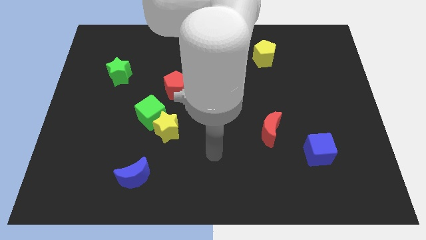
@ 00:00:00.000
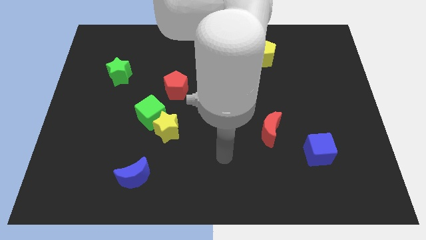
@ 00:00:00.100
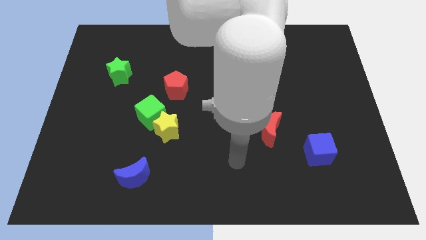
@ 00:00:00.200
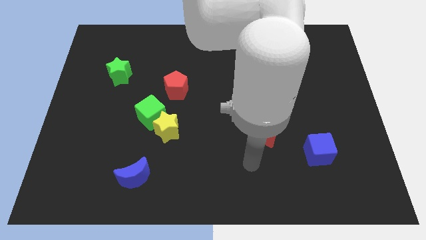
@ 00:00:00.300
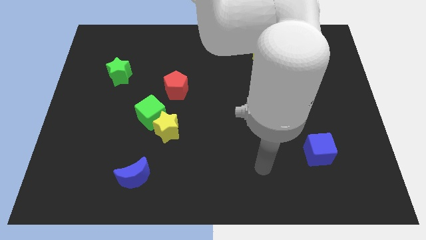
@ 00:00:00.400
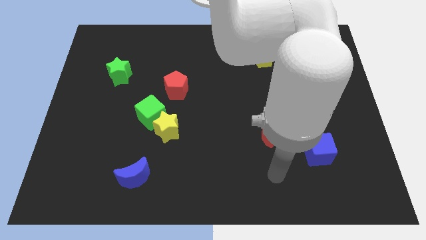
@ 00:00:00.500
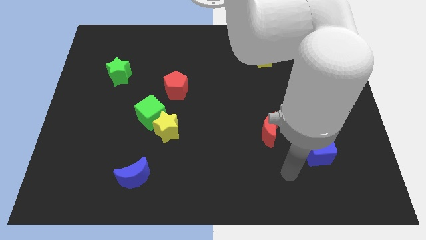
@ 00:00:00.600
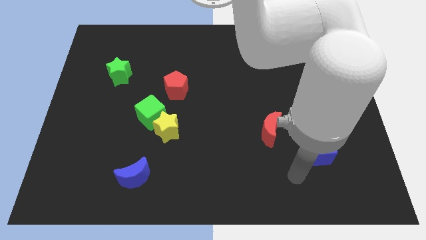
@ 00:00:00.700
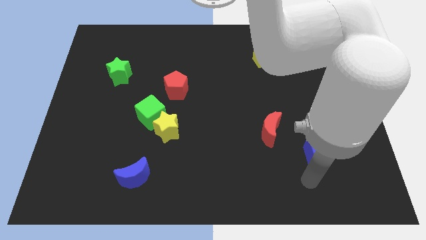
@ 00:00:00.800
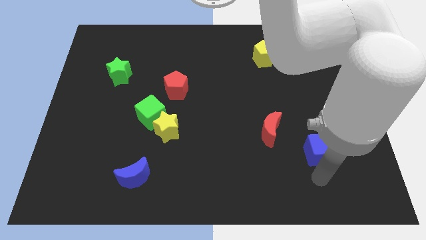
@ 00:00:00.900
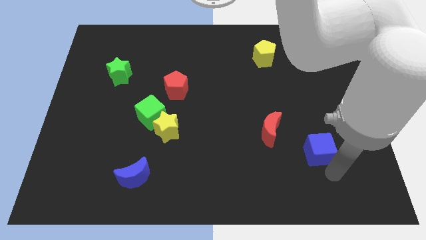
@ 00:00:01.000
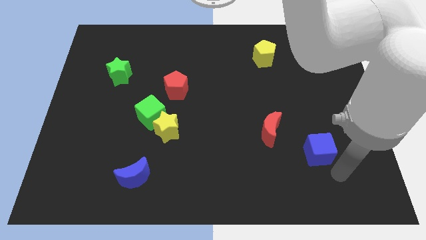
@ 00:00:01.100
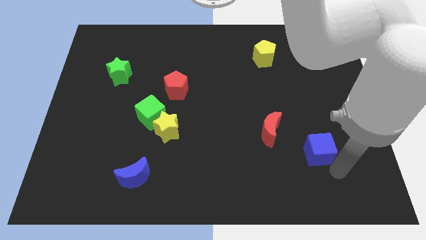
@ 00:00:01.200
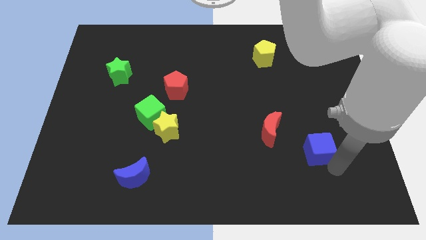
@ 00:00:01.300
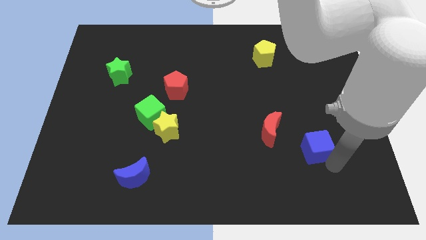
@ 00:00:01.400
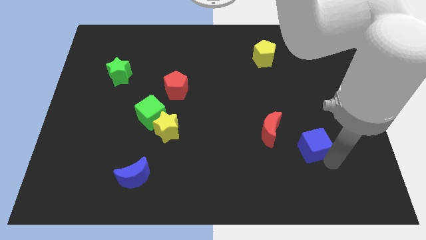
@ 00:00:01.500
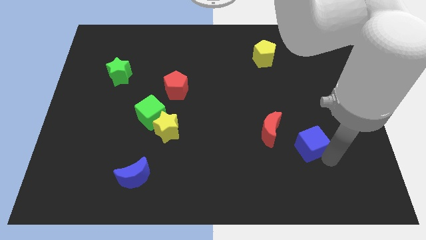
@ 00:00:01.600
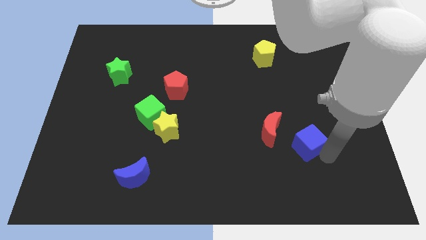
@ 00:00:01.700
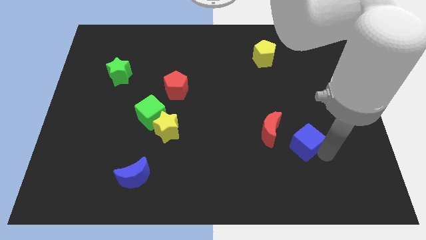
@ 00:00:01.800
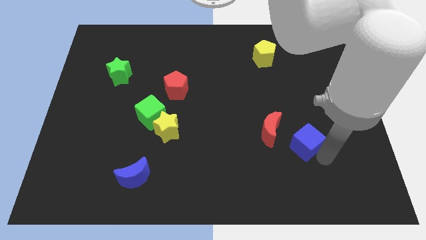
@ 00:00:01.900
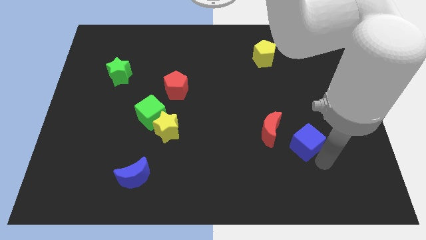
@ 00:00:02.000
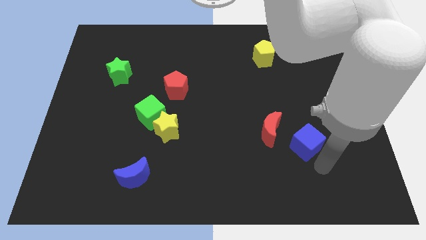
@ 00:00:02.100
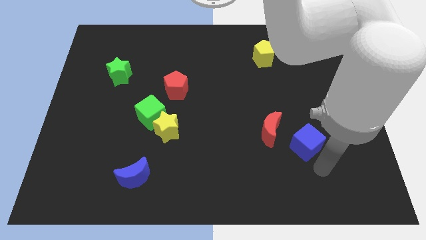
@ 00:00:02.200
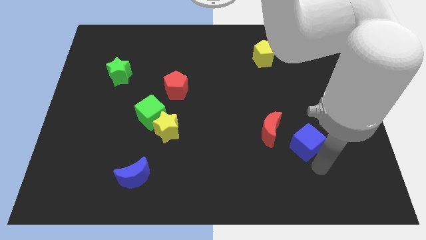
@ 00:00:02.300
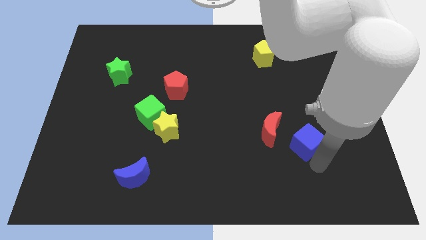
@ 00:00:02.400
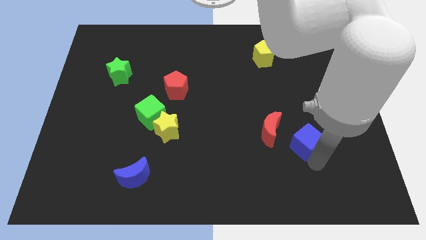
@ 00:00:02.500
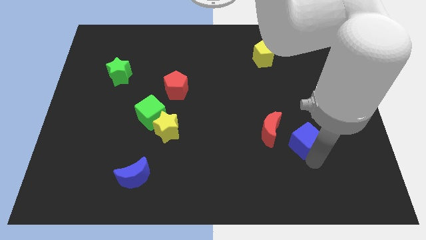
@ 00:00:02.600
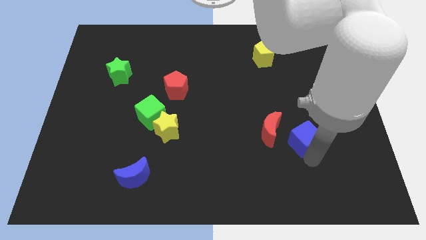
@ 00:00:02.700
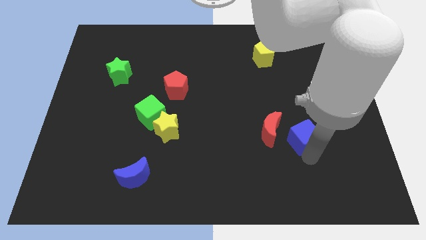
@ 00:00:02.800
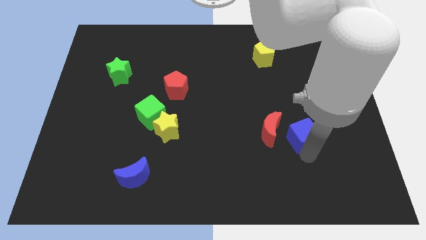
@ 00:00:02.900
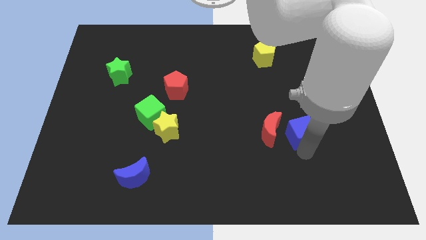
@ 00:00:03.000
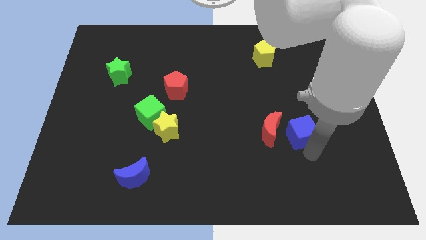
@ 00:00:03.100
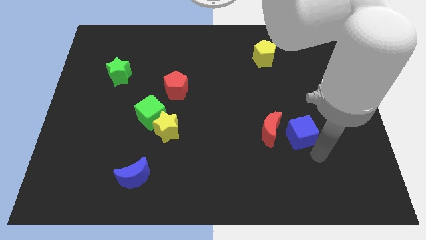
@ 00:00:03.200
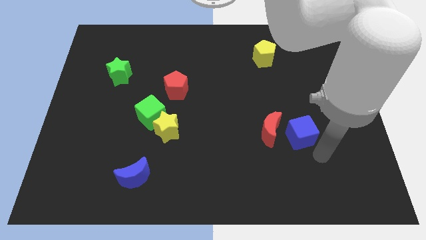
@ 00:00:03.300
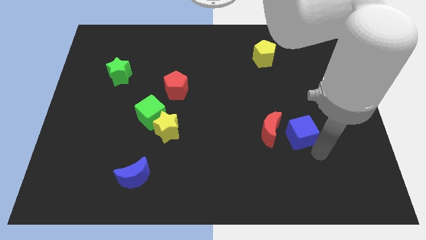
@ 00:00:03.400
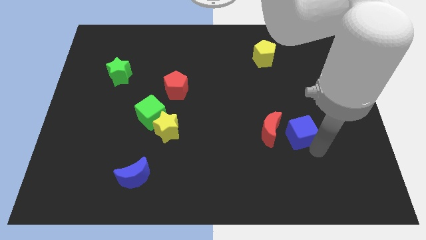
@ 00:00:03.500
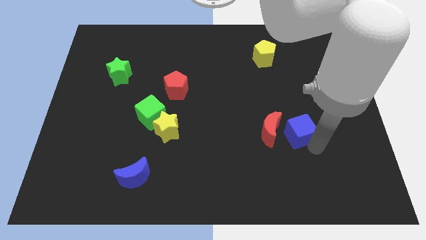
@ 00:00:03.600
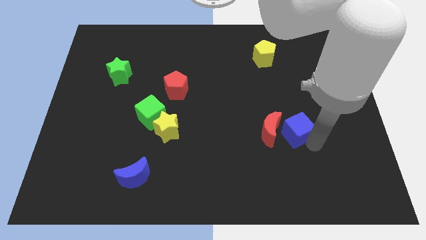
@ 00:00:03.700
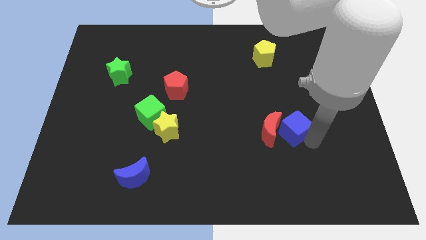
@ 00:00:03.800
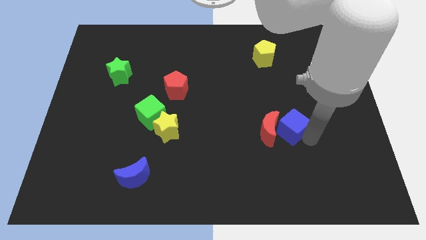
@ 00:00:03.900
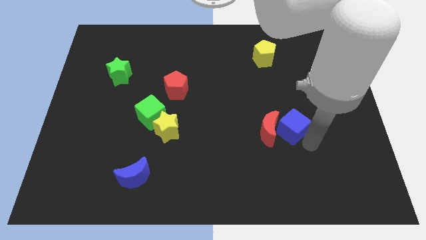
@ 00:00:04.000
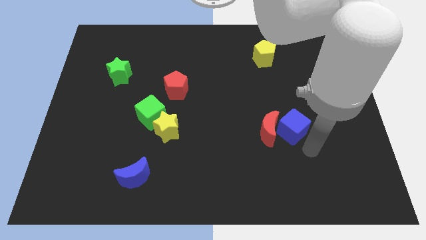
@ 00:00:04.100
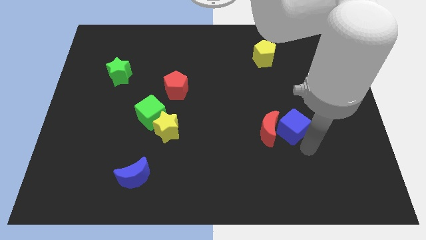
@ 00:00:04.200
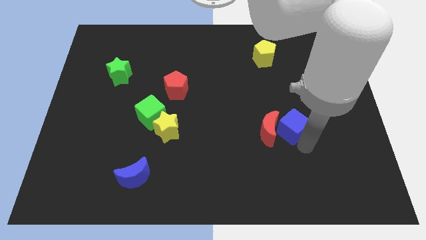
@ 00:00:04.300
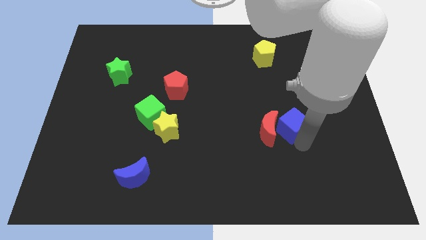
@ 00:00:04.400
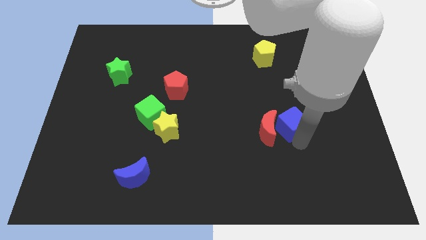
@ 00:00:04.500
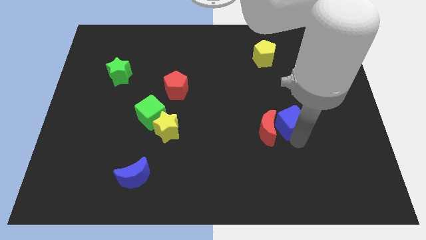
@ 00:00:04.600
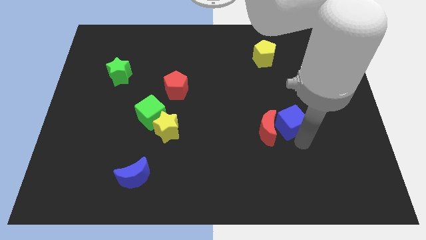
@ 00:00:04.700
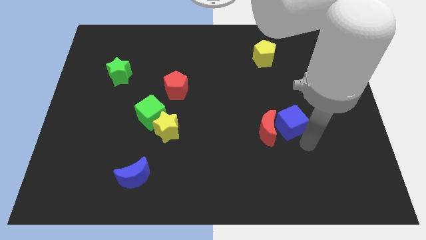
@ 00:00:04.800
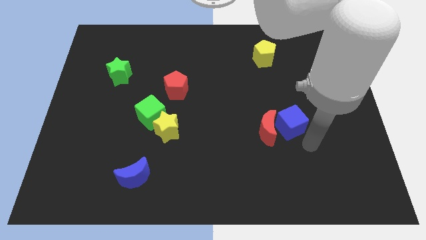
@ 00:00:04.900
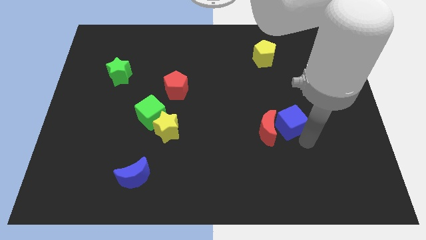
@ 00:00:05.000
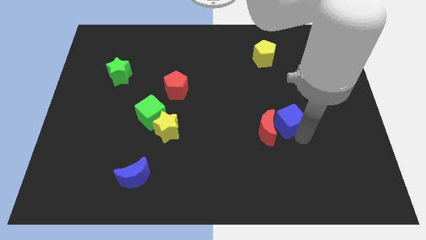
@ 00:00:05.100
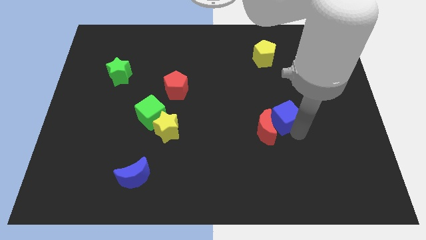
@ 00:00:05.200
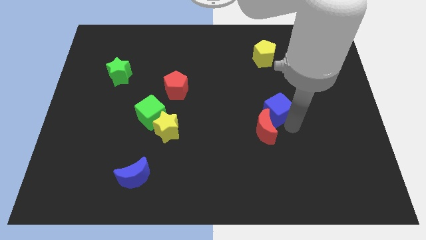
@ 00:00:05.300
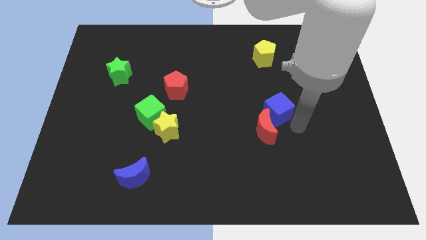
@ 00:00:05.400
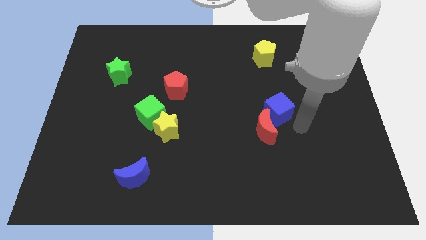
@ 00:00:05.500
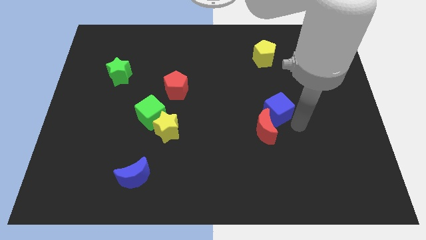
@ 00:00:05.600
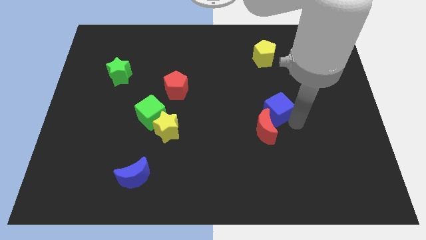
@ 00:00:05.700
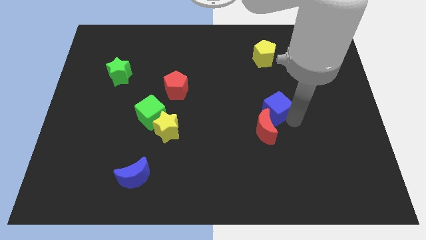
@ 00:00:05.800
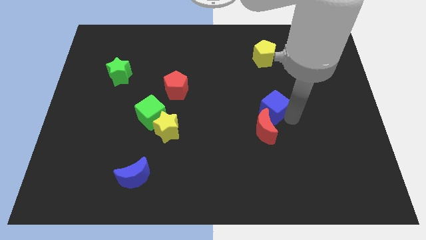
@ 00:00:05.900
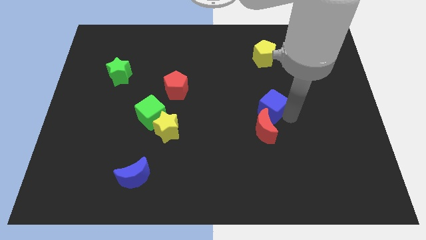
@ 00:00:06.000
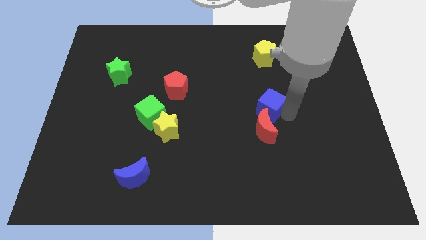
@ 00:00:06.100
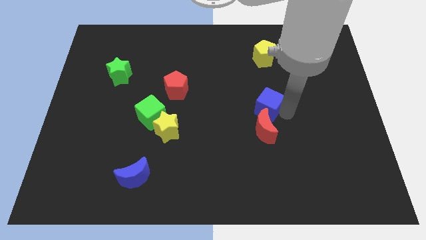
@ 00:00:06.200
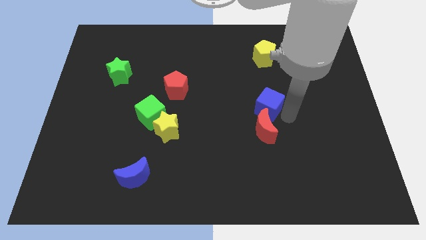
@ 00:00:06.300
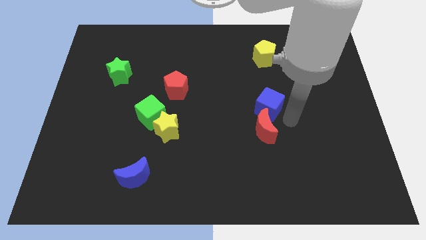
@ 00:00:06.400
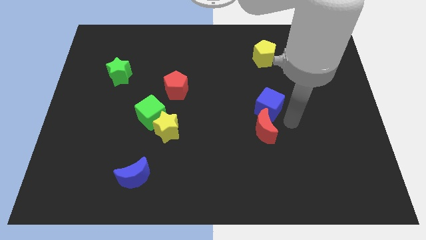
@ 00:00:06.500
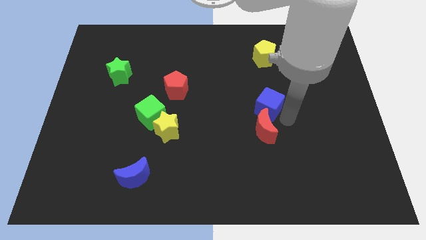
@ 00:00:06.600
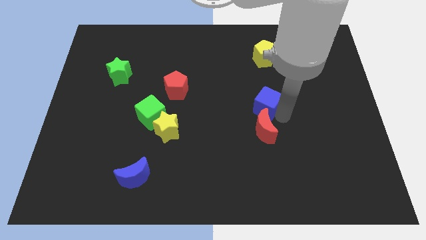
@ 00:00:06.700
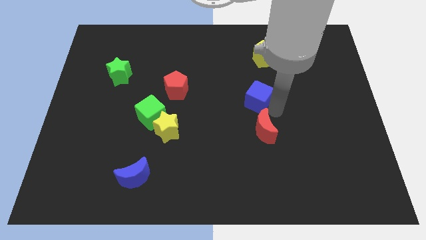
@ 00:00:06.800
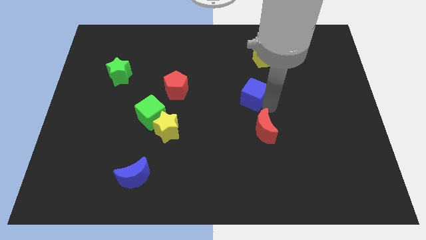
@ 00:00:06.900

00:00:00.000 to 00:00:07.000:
move the blue cube diagonally upwards and left

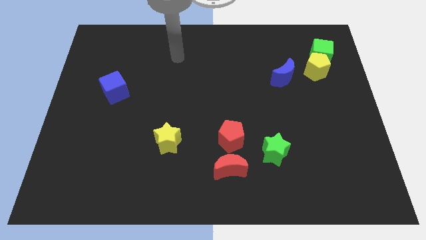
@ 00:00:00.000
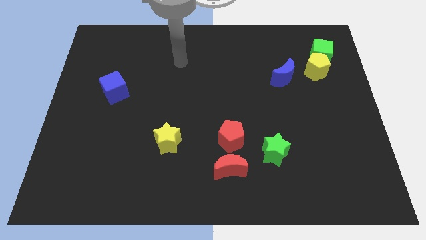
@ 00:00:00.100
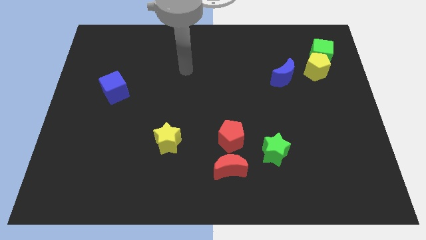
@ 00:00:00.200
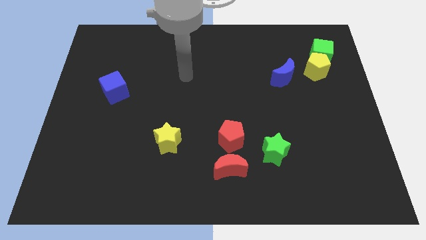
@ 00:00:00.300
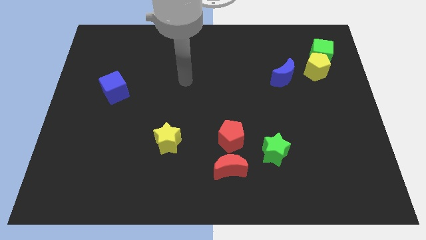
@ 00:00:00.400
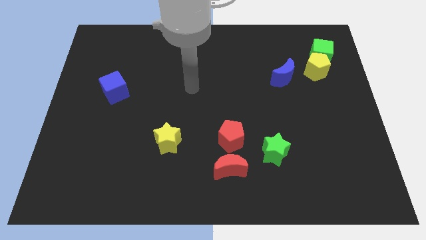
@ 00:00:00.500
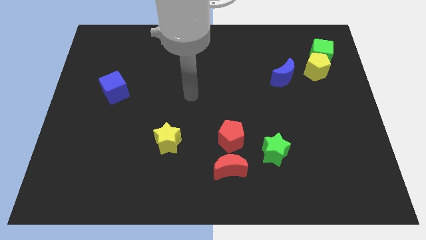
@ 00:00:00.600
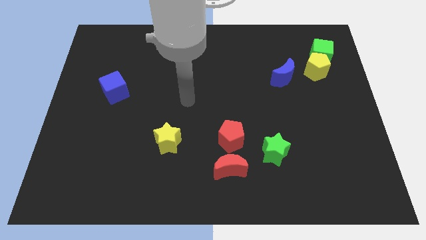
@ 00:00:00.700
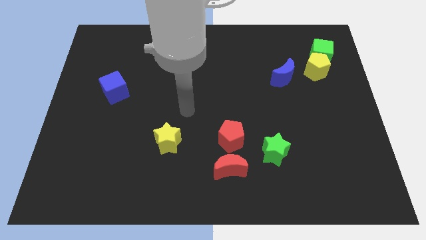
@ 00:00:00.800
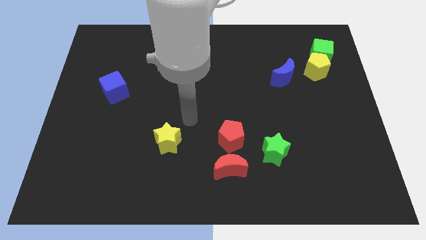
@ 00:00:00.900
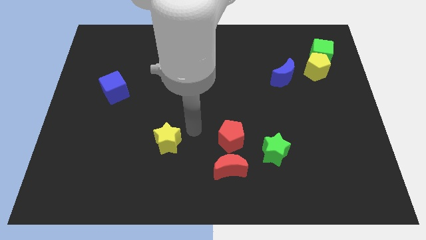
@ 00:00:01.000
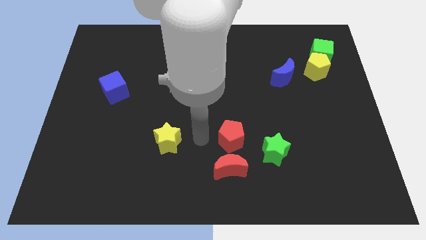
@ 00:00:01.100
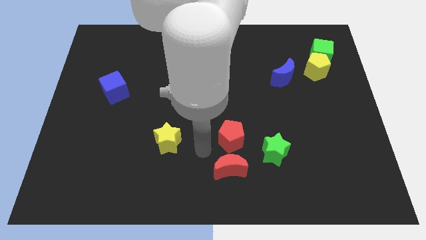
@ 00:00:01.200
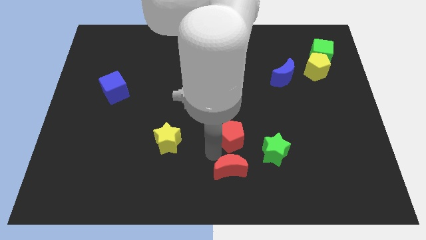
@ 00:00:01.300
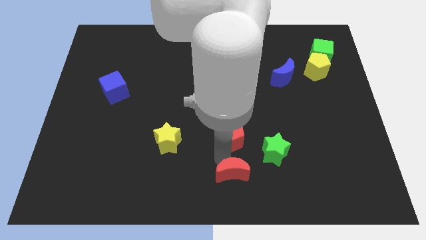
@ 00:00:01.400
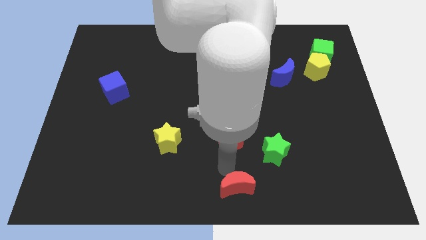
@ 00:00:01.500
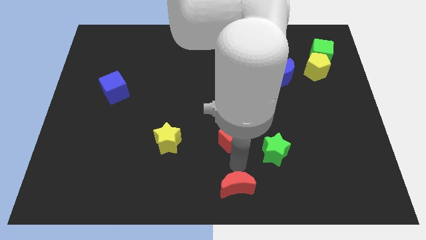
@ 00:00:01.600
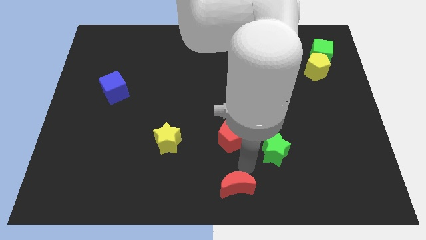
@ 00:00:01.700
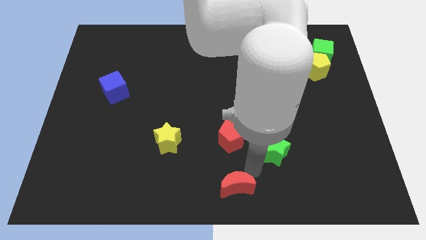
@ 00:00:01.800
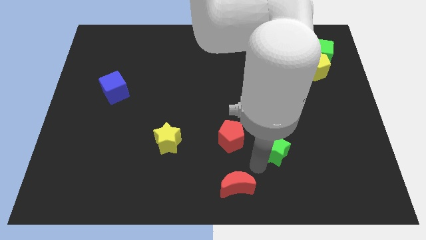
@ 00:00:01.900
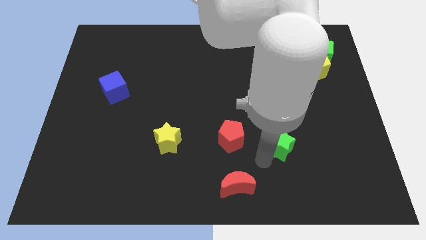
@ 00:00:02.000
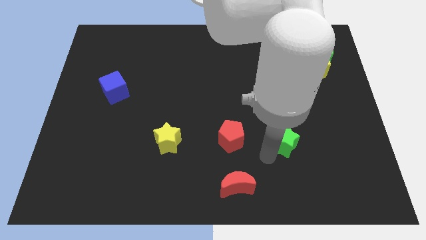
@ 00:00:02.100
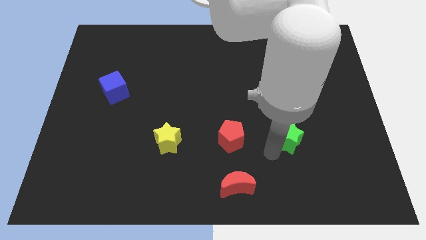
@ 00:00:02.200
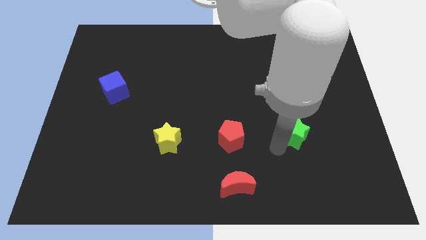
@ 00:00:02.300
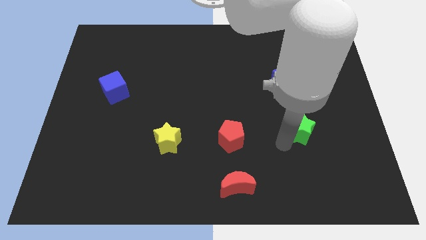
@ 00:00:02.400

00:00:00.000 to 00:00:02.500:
slide the green star upwards and to the right a little bit
